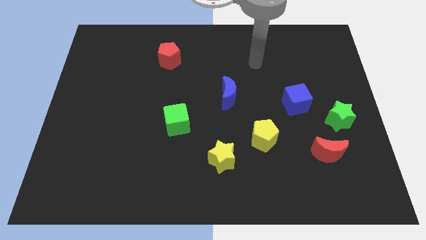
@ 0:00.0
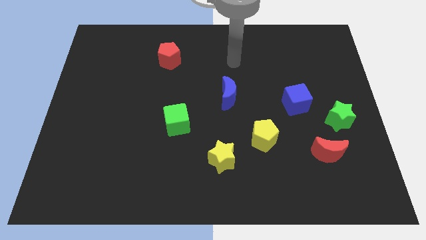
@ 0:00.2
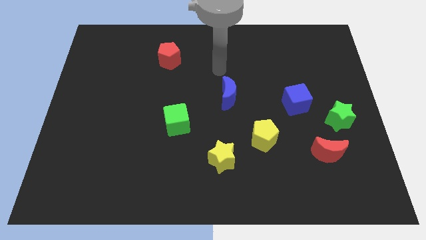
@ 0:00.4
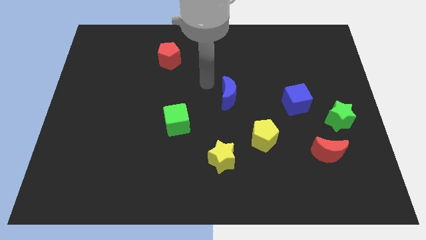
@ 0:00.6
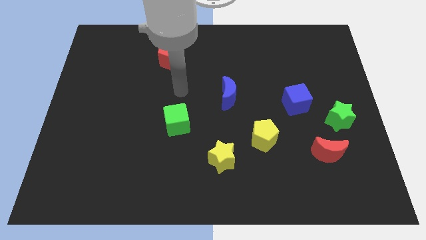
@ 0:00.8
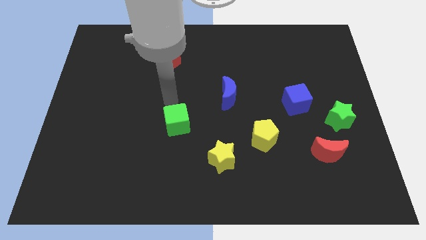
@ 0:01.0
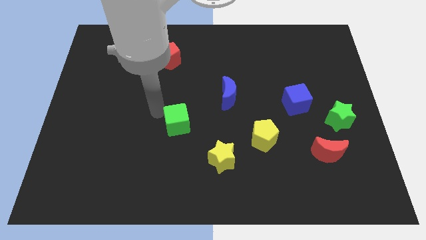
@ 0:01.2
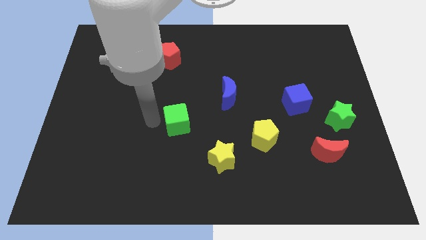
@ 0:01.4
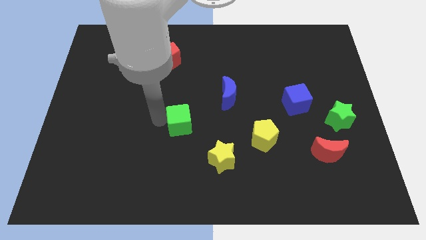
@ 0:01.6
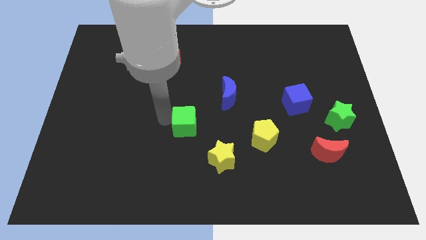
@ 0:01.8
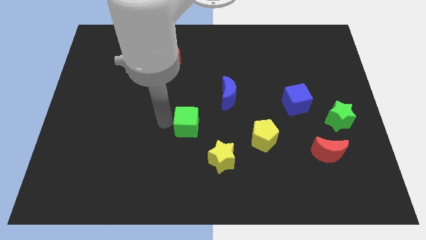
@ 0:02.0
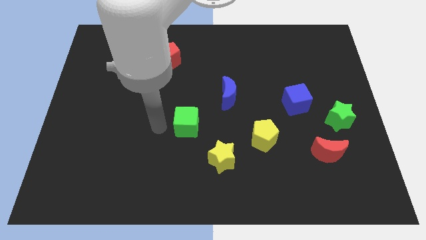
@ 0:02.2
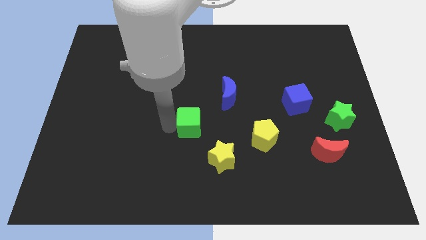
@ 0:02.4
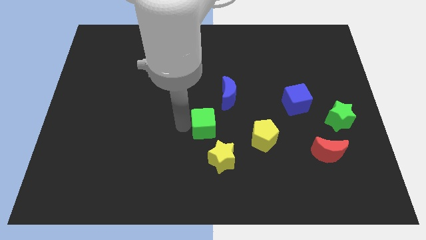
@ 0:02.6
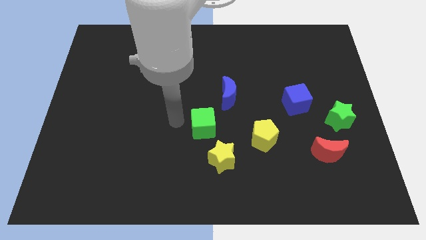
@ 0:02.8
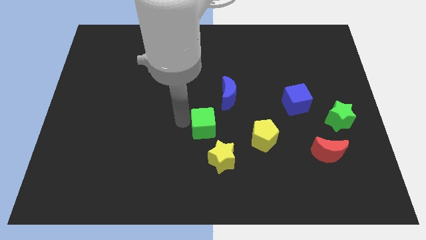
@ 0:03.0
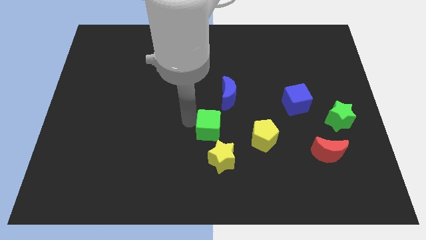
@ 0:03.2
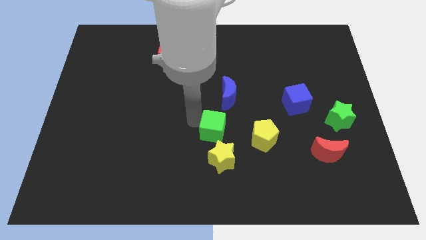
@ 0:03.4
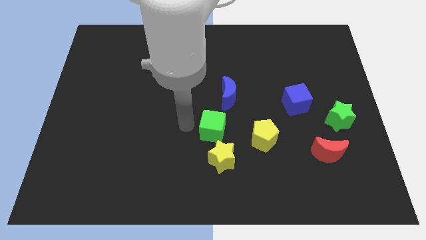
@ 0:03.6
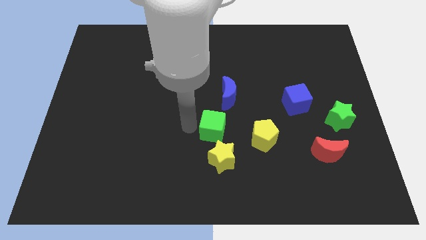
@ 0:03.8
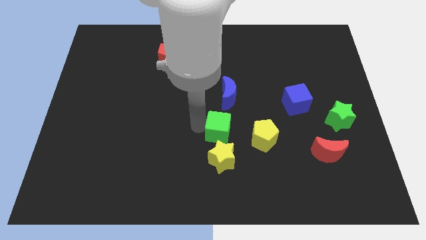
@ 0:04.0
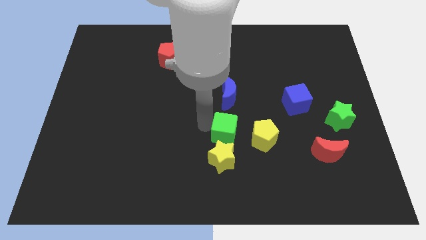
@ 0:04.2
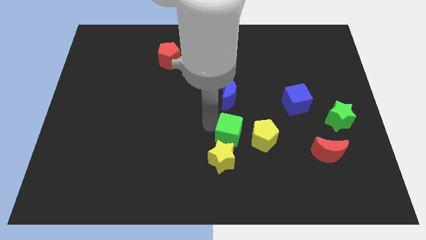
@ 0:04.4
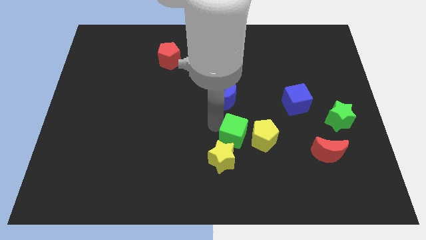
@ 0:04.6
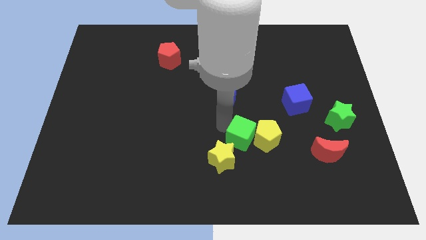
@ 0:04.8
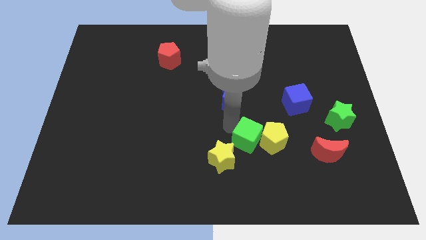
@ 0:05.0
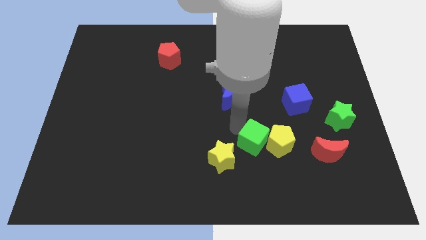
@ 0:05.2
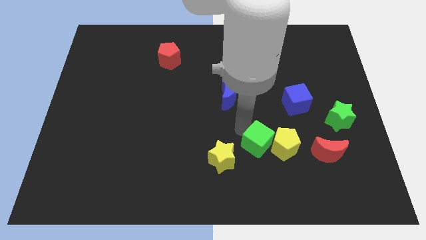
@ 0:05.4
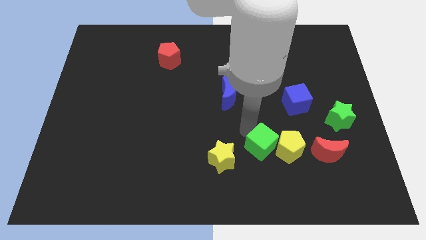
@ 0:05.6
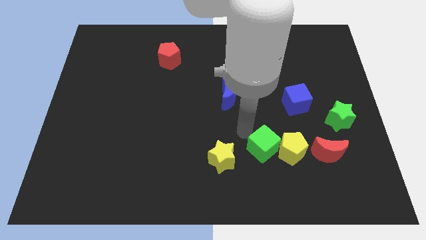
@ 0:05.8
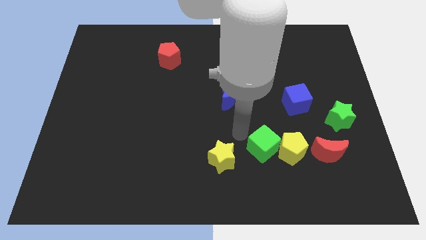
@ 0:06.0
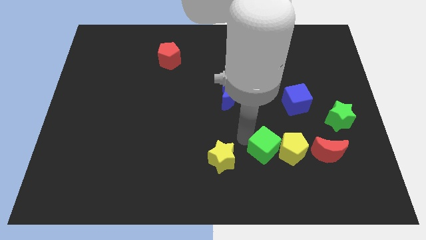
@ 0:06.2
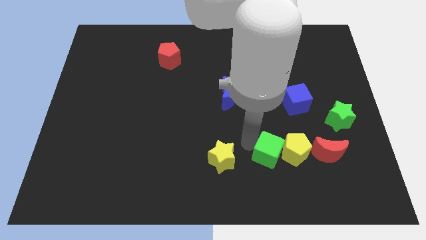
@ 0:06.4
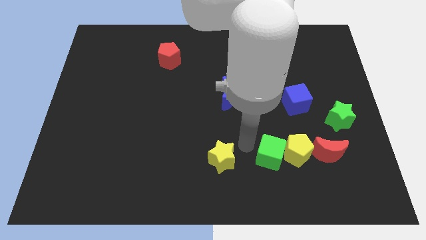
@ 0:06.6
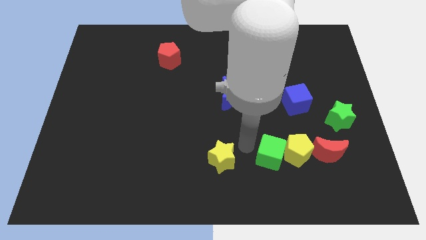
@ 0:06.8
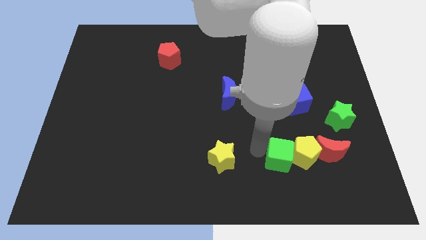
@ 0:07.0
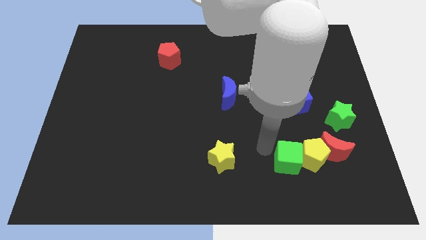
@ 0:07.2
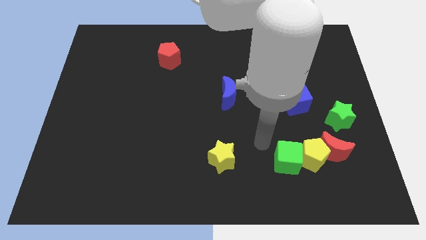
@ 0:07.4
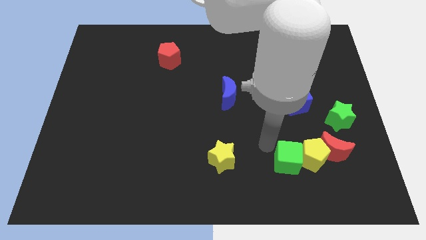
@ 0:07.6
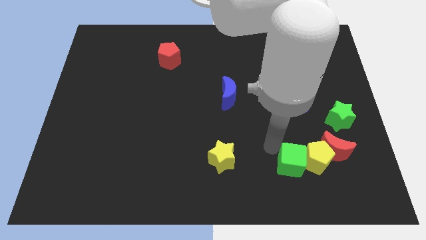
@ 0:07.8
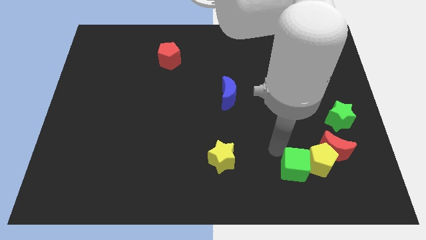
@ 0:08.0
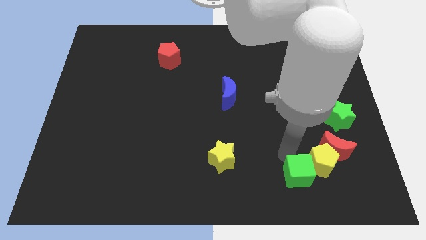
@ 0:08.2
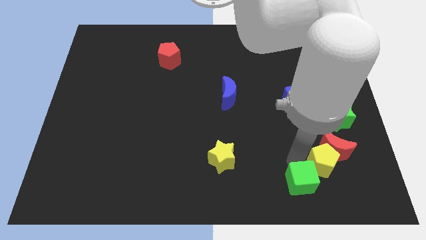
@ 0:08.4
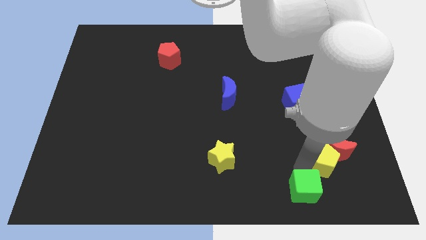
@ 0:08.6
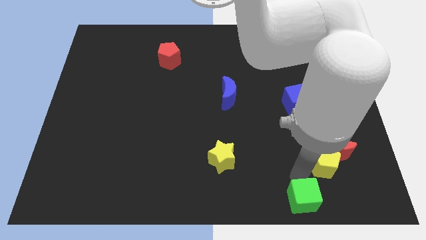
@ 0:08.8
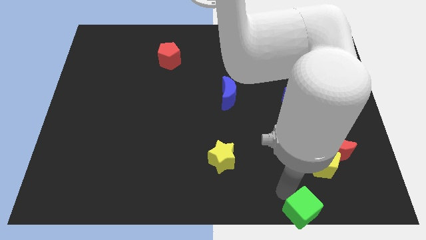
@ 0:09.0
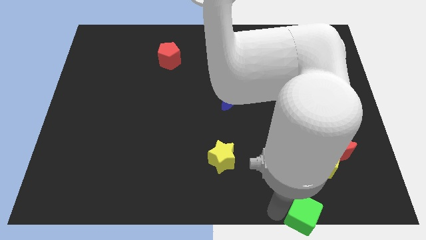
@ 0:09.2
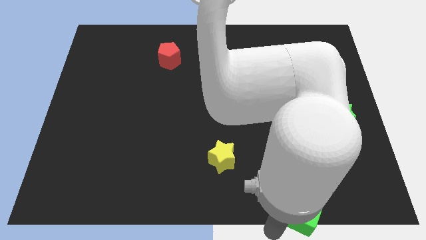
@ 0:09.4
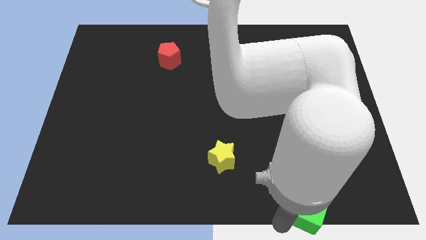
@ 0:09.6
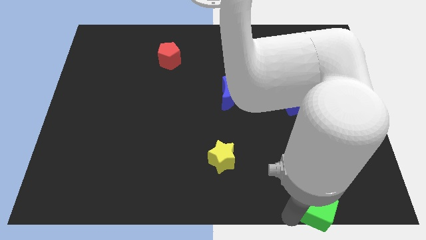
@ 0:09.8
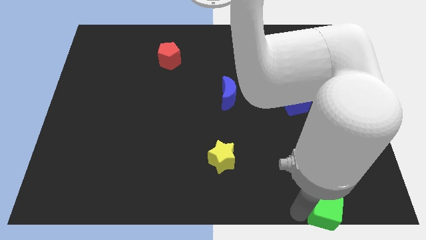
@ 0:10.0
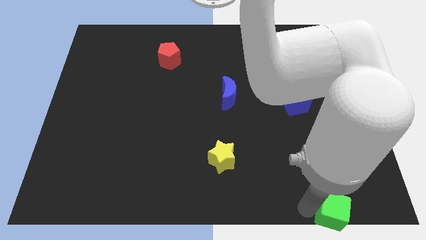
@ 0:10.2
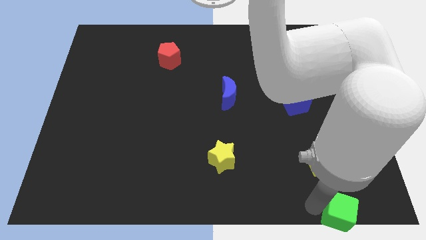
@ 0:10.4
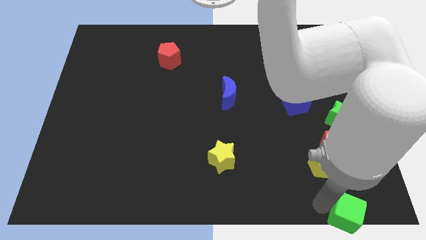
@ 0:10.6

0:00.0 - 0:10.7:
slide the green cube to the bottom right corner

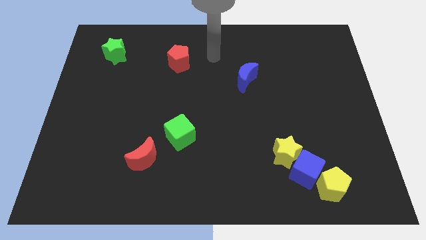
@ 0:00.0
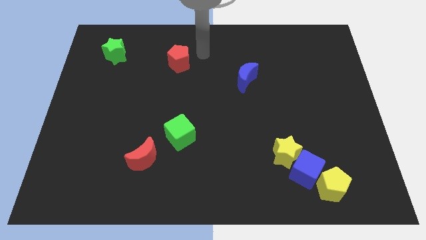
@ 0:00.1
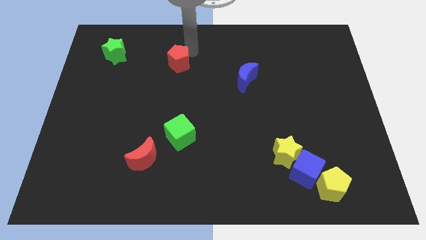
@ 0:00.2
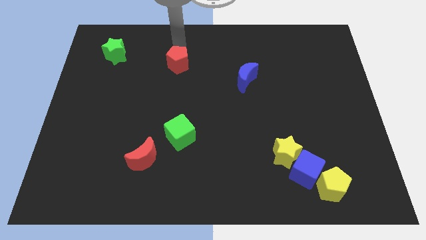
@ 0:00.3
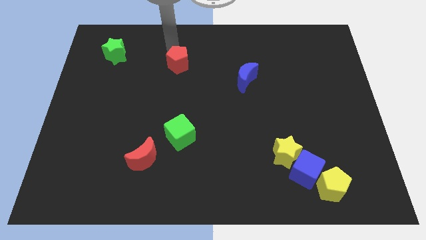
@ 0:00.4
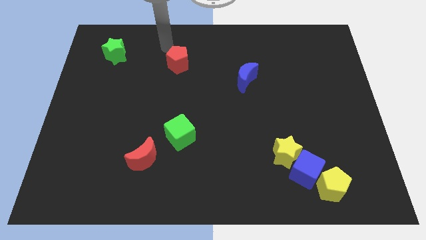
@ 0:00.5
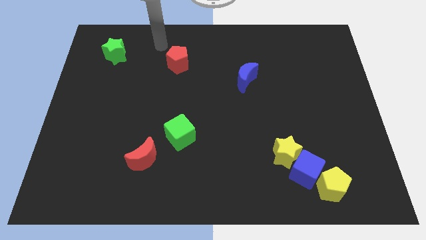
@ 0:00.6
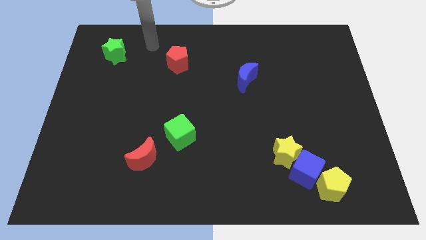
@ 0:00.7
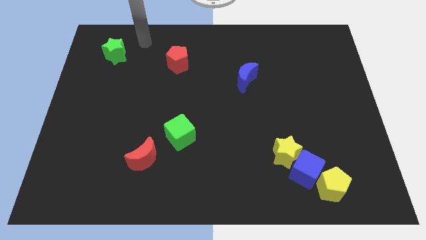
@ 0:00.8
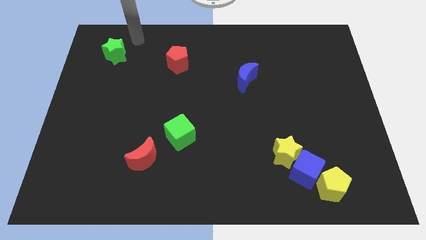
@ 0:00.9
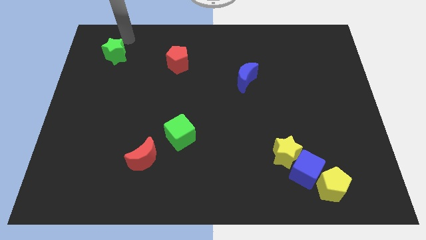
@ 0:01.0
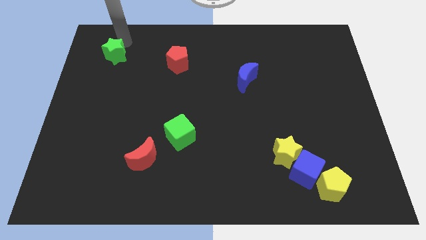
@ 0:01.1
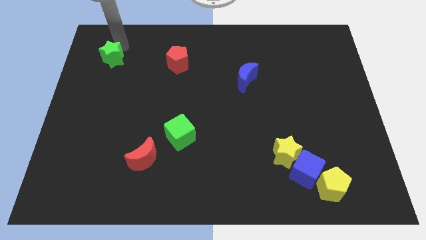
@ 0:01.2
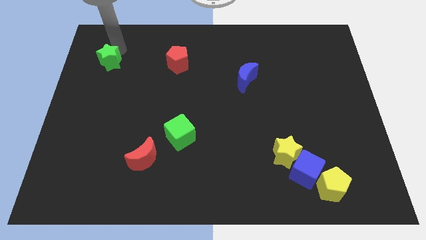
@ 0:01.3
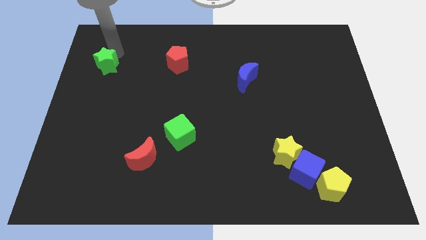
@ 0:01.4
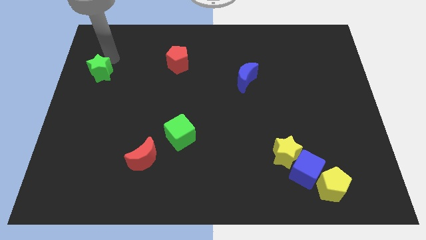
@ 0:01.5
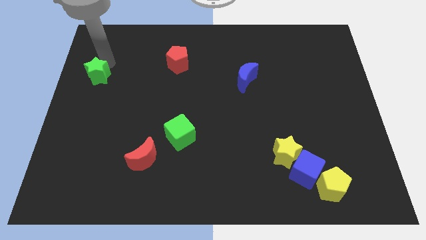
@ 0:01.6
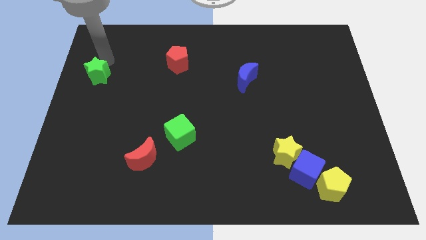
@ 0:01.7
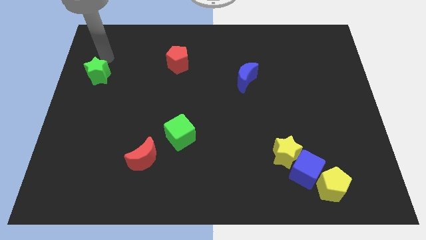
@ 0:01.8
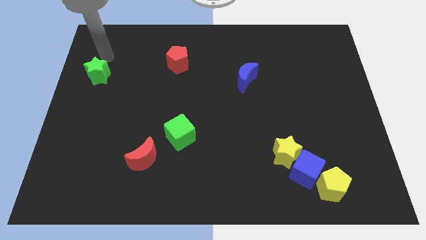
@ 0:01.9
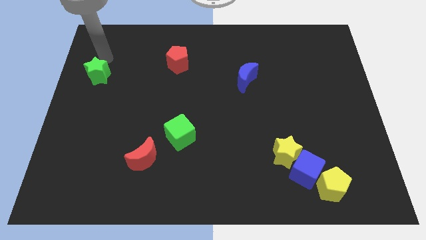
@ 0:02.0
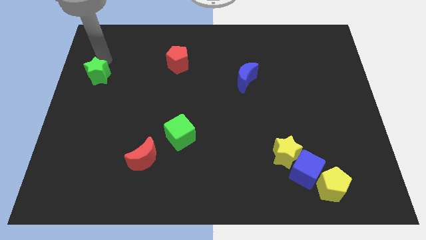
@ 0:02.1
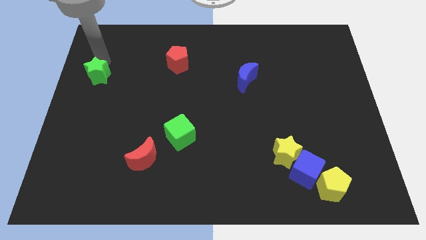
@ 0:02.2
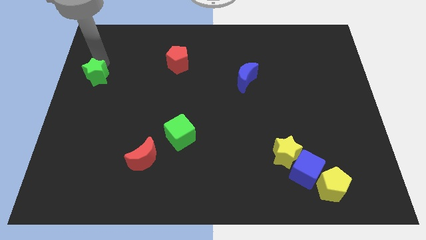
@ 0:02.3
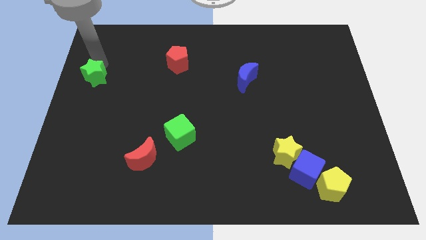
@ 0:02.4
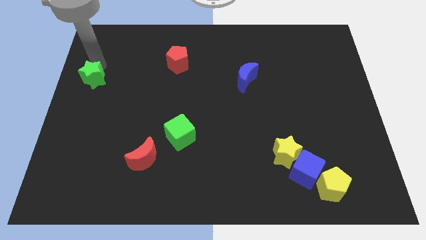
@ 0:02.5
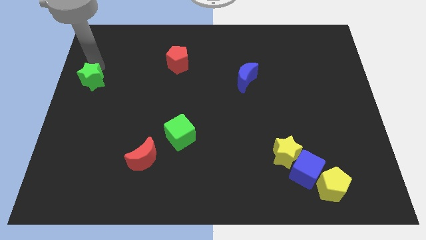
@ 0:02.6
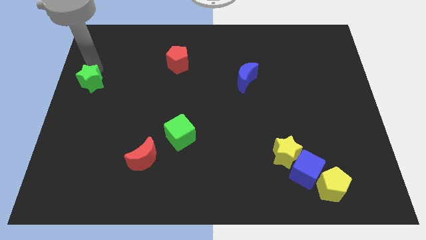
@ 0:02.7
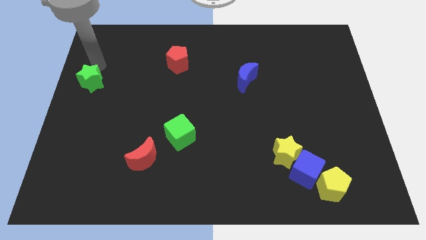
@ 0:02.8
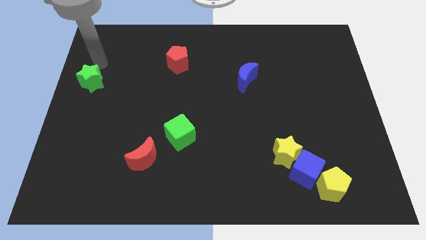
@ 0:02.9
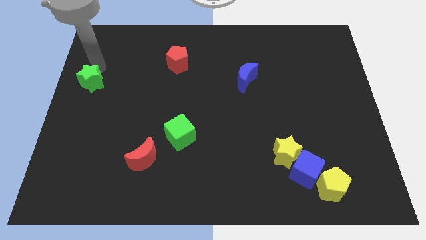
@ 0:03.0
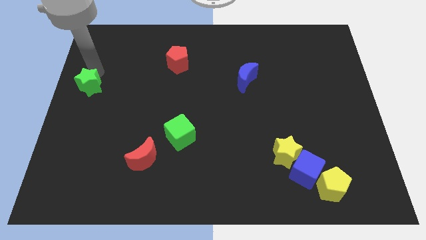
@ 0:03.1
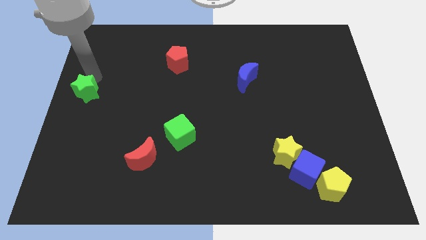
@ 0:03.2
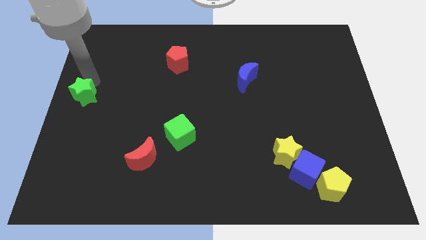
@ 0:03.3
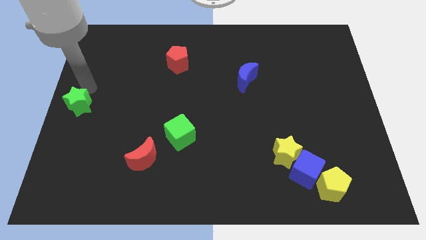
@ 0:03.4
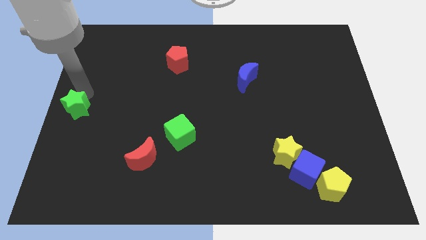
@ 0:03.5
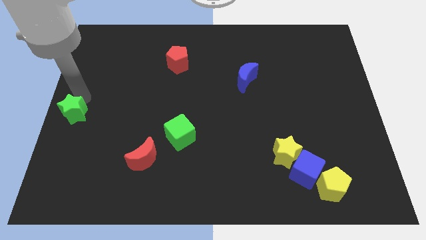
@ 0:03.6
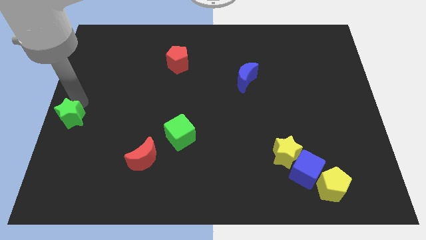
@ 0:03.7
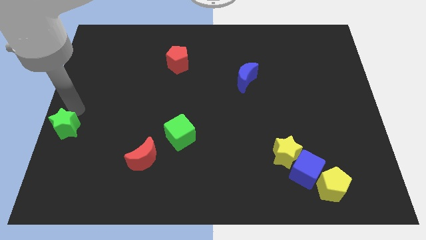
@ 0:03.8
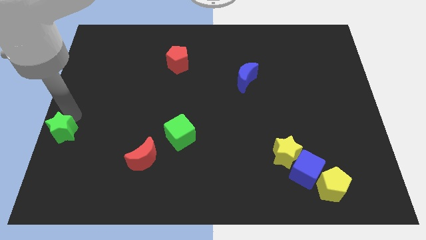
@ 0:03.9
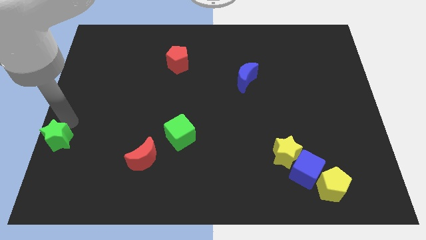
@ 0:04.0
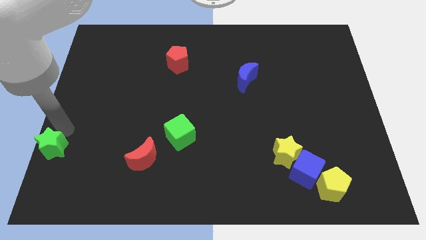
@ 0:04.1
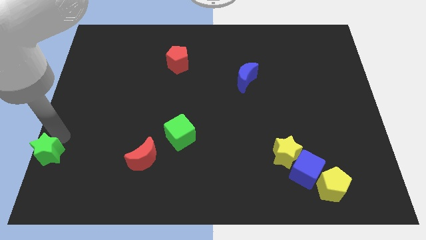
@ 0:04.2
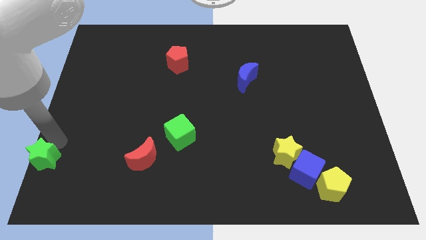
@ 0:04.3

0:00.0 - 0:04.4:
push the green star to the bottom left of the board
